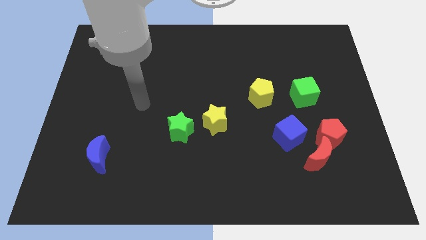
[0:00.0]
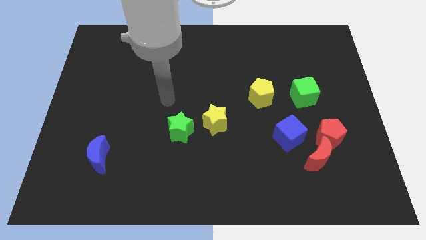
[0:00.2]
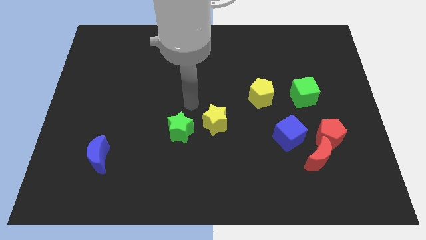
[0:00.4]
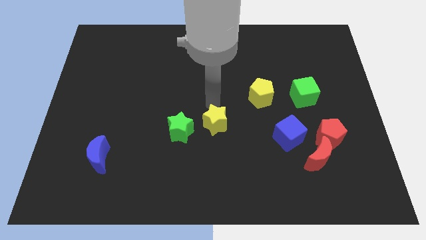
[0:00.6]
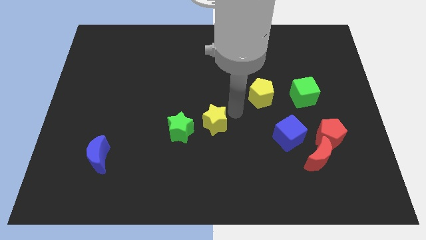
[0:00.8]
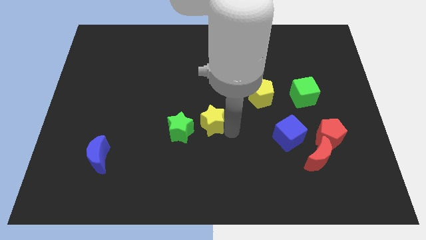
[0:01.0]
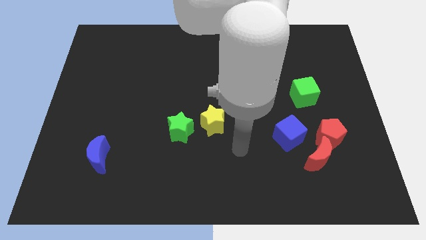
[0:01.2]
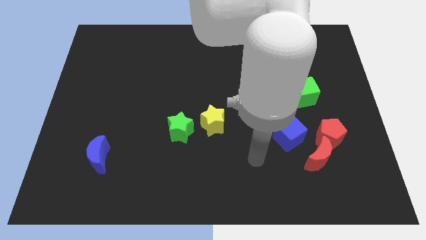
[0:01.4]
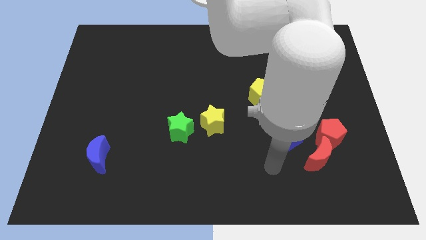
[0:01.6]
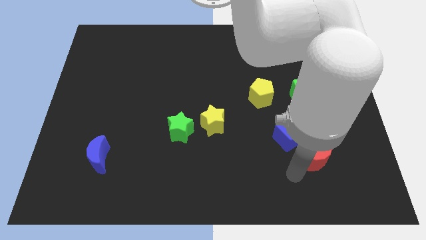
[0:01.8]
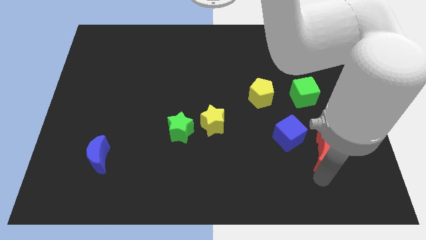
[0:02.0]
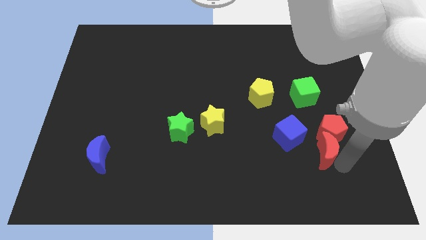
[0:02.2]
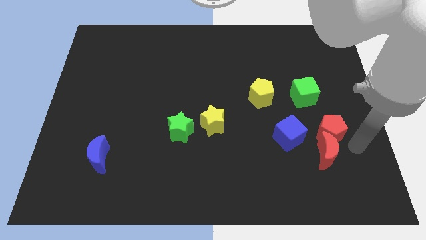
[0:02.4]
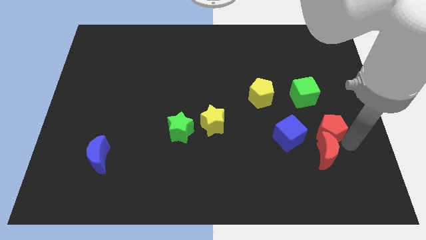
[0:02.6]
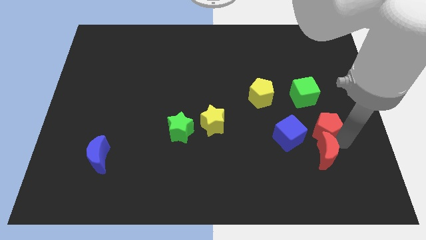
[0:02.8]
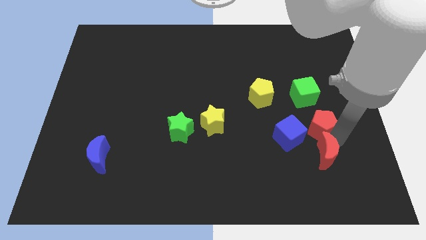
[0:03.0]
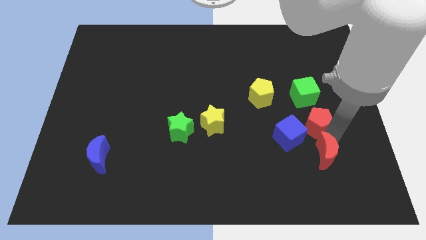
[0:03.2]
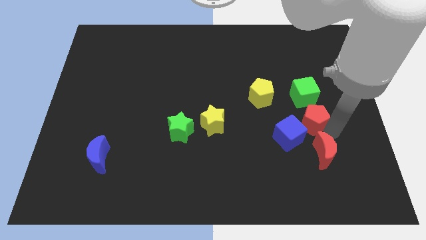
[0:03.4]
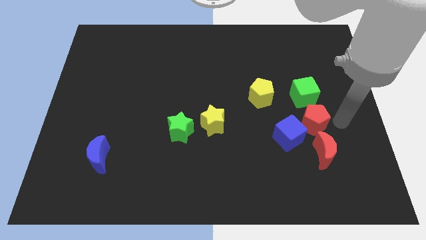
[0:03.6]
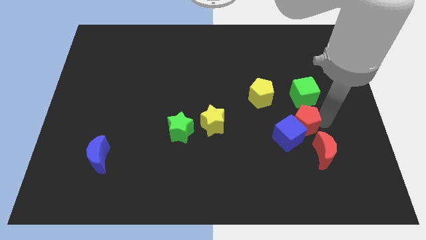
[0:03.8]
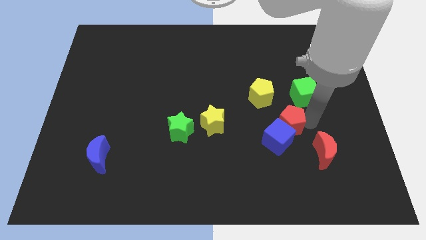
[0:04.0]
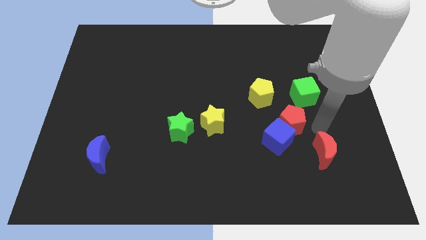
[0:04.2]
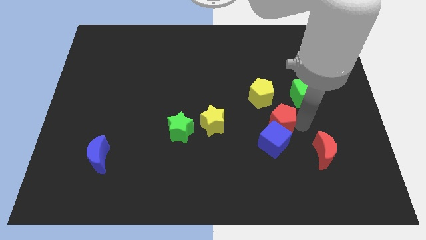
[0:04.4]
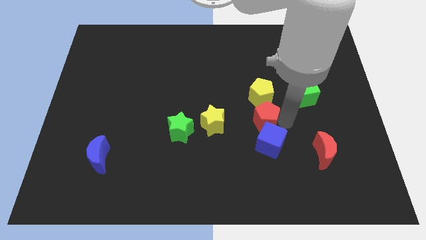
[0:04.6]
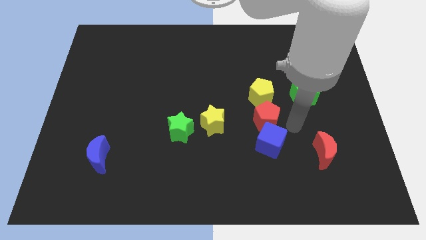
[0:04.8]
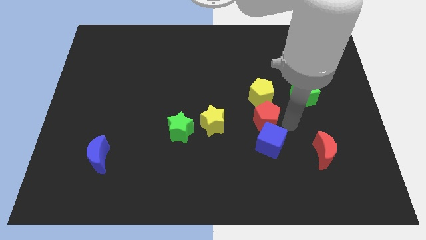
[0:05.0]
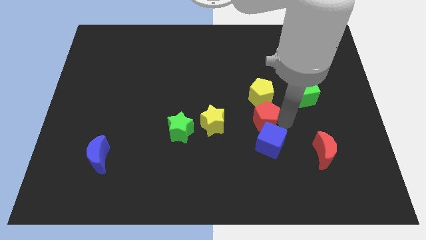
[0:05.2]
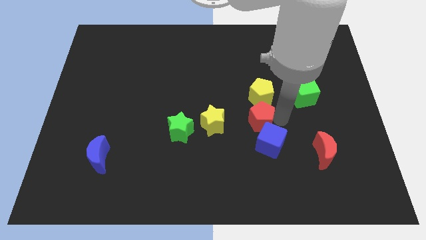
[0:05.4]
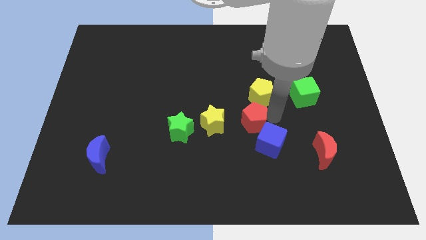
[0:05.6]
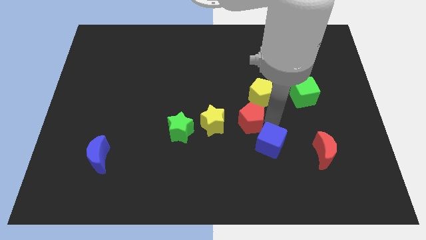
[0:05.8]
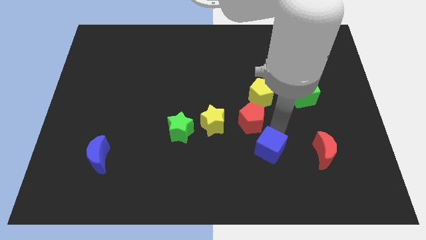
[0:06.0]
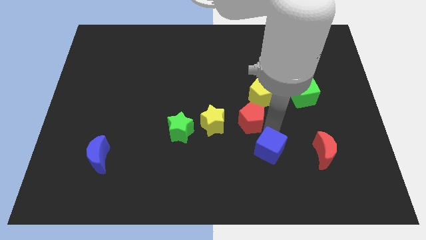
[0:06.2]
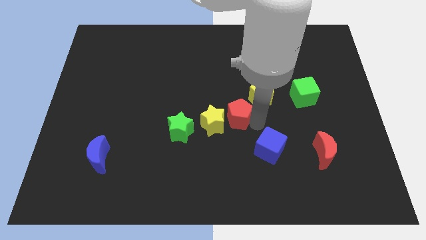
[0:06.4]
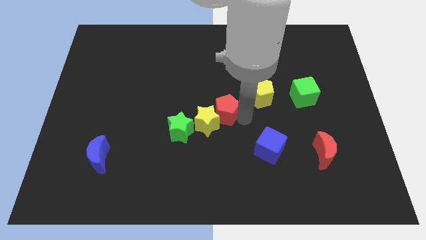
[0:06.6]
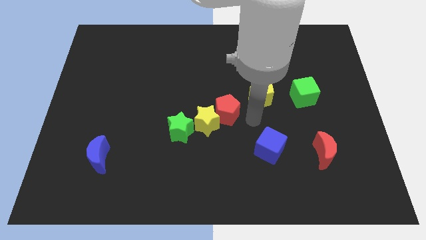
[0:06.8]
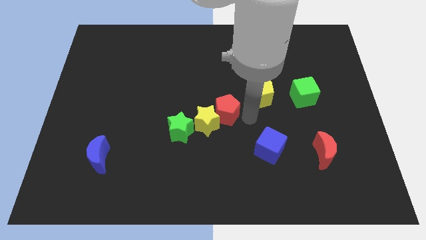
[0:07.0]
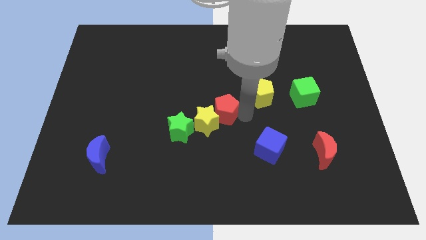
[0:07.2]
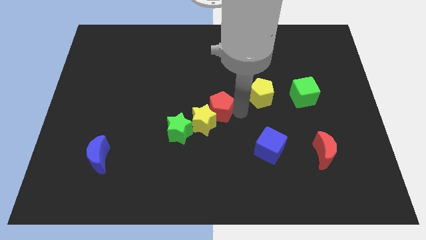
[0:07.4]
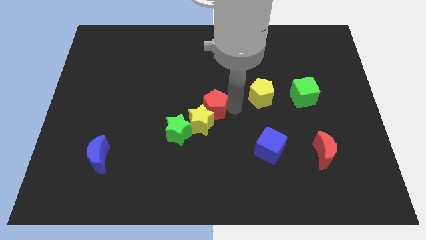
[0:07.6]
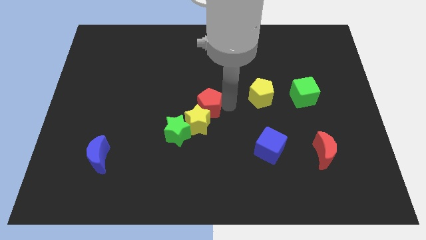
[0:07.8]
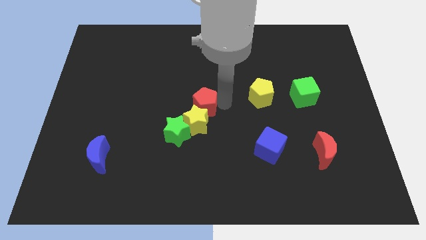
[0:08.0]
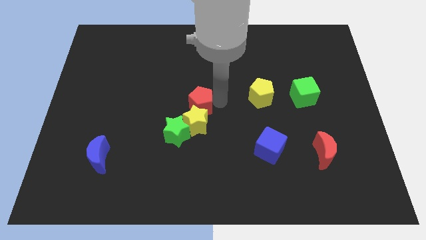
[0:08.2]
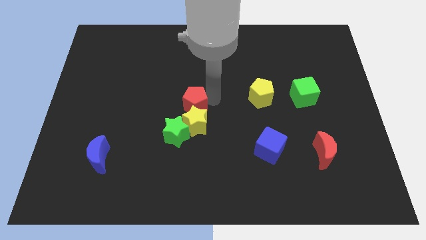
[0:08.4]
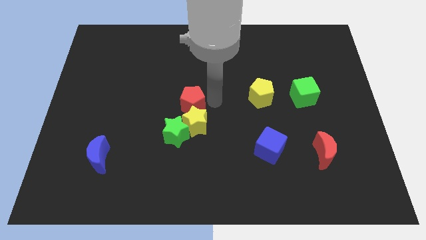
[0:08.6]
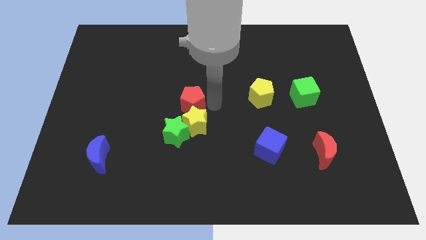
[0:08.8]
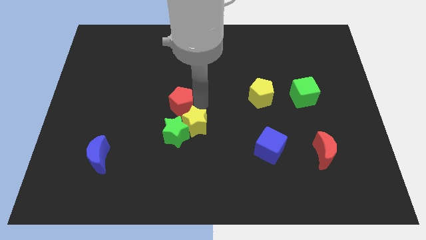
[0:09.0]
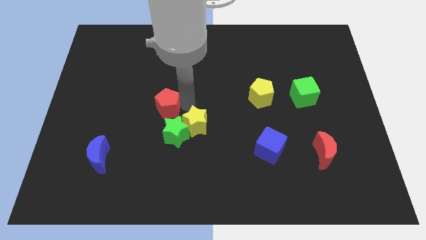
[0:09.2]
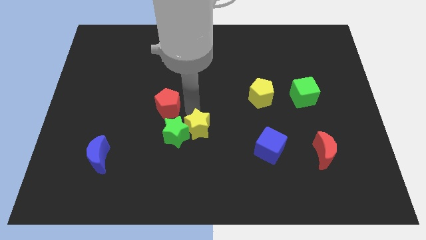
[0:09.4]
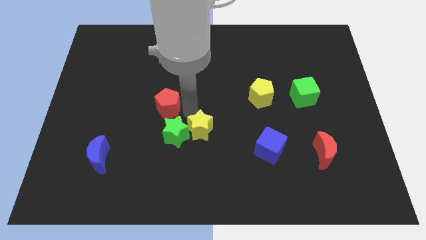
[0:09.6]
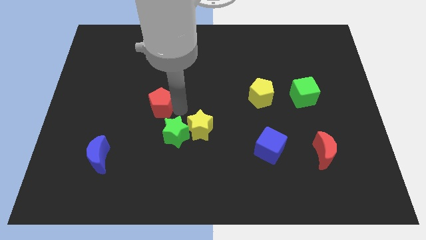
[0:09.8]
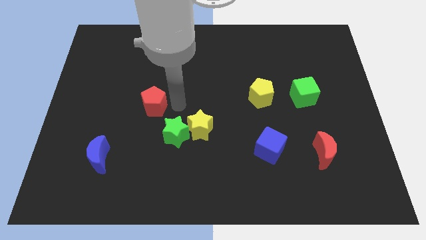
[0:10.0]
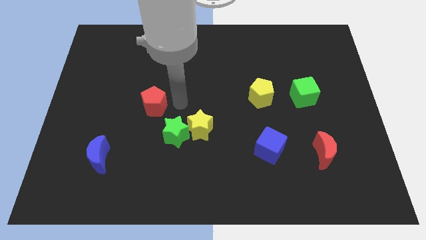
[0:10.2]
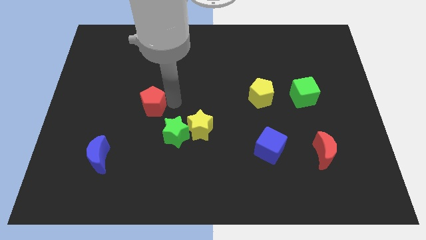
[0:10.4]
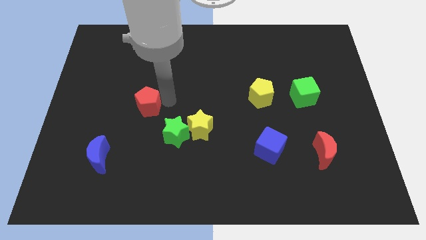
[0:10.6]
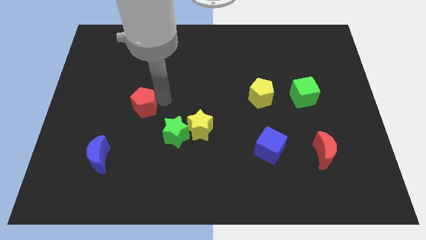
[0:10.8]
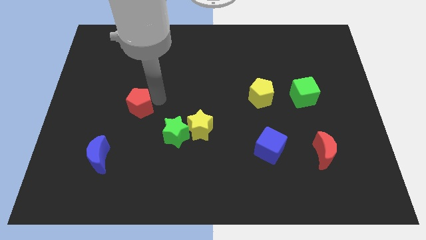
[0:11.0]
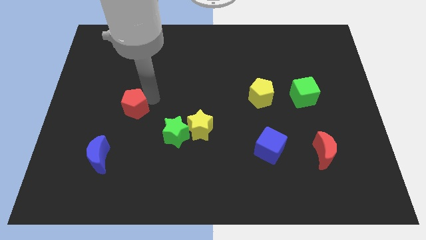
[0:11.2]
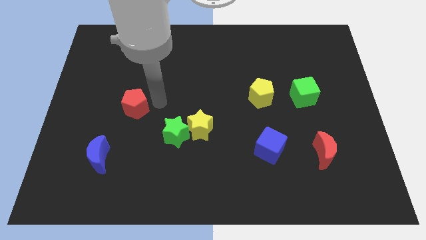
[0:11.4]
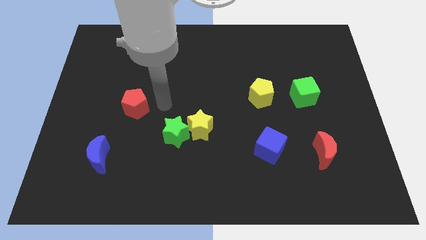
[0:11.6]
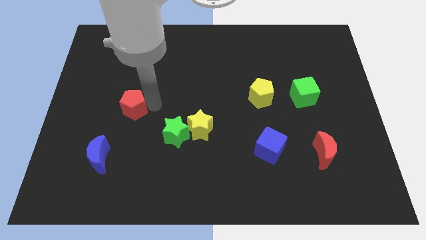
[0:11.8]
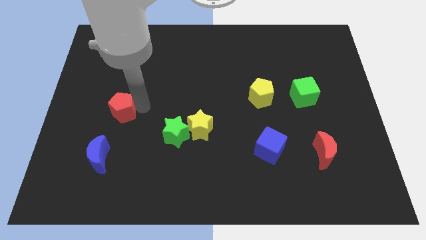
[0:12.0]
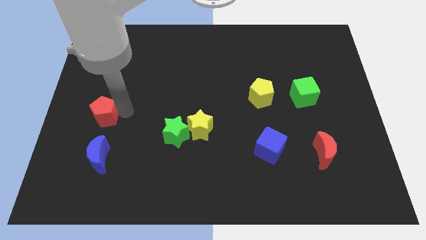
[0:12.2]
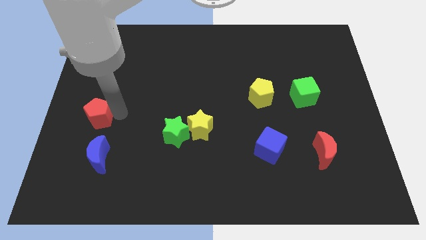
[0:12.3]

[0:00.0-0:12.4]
move the red pentagon to the left side of the board
